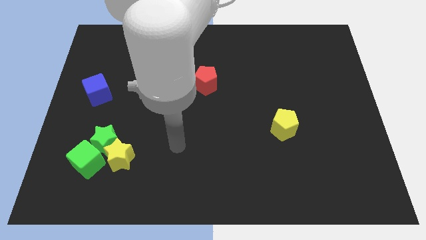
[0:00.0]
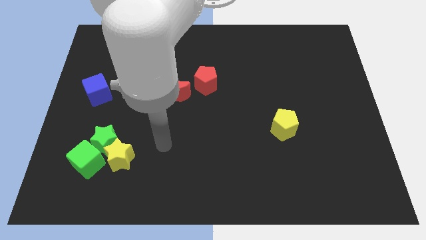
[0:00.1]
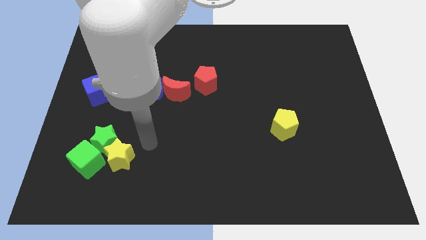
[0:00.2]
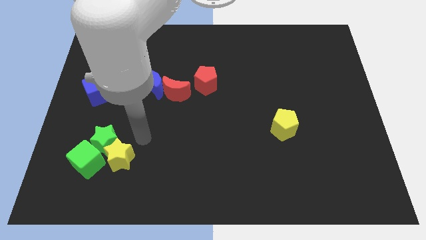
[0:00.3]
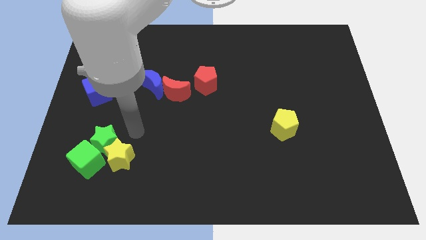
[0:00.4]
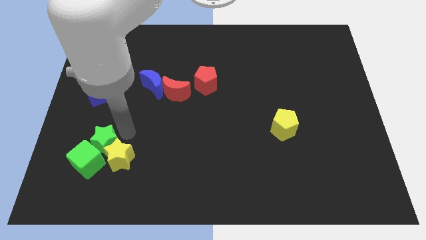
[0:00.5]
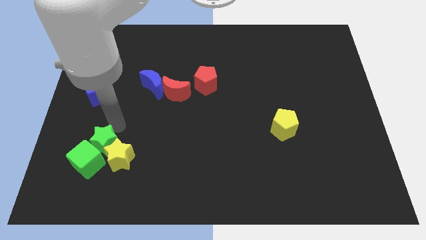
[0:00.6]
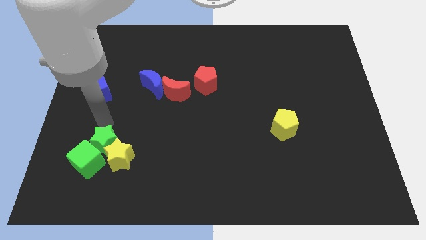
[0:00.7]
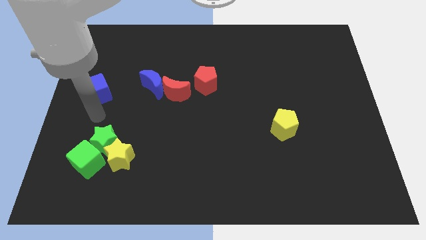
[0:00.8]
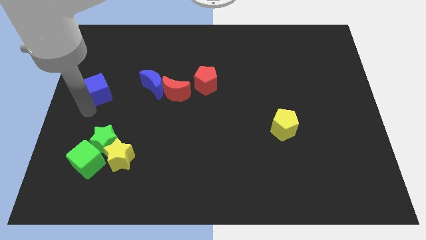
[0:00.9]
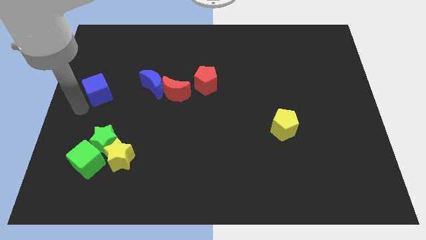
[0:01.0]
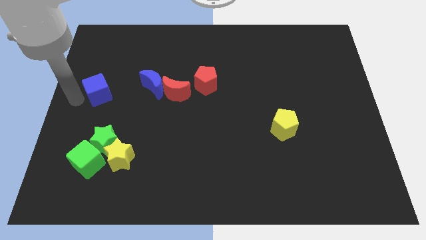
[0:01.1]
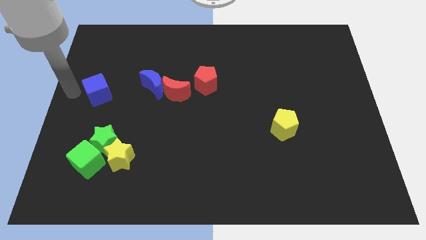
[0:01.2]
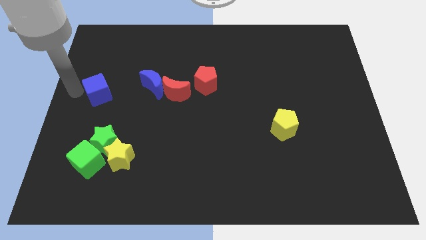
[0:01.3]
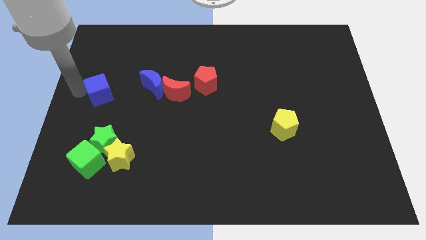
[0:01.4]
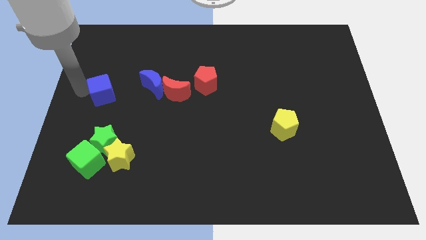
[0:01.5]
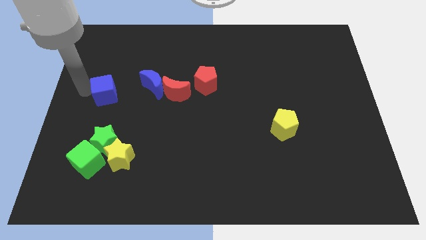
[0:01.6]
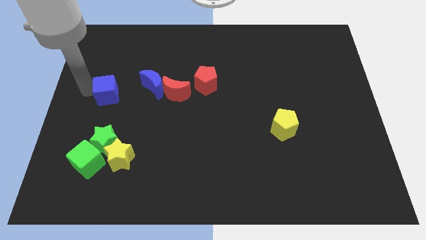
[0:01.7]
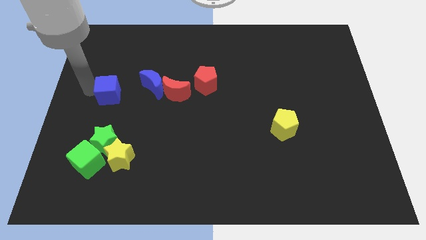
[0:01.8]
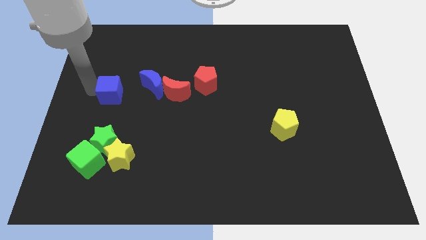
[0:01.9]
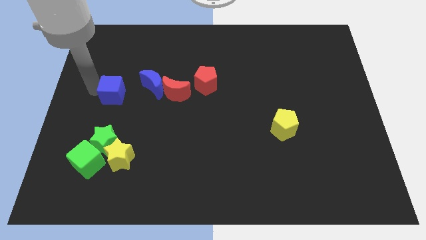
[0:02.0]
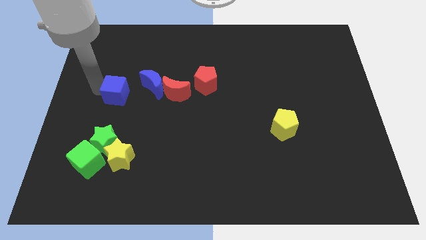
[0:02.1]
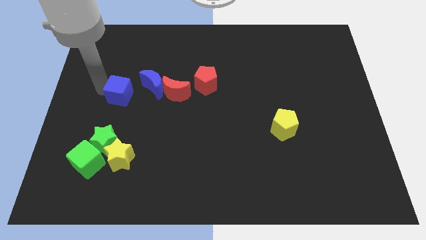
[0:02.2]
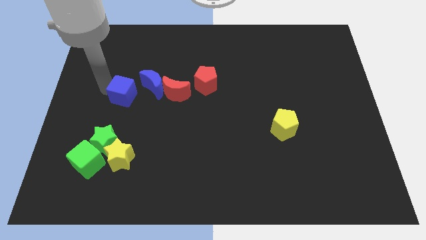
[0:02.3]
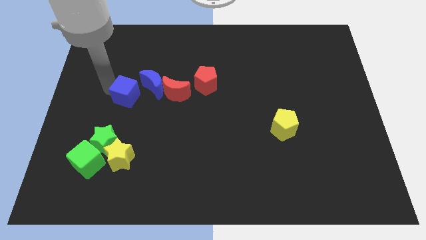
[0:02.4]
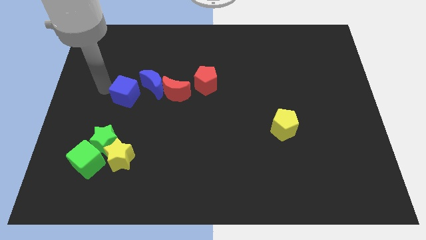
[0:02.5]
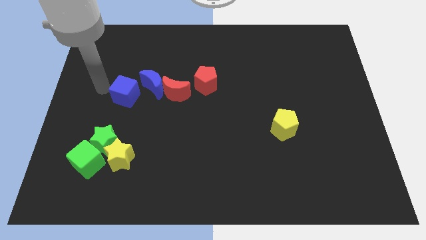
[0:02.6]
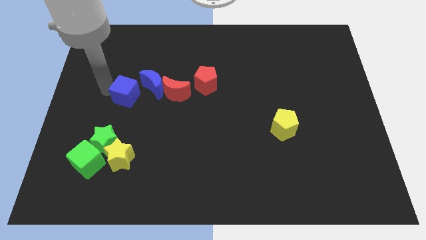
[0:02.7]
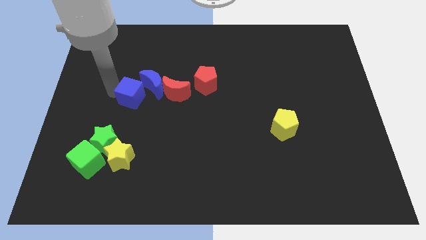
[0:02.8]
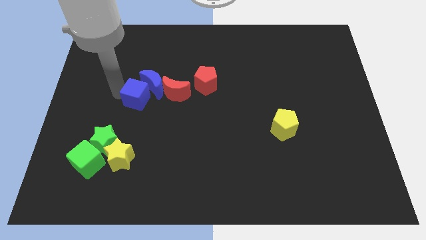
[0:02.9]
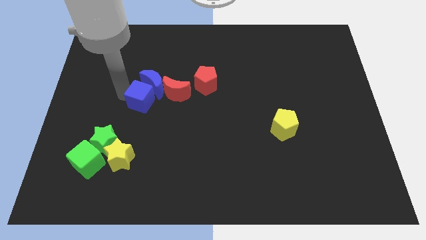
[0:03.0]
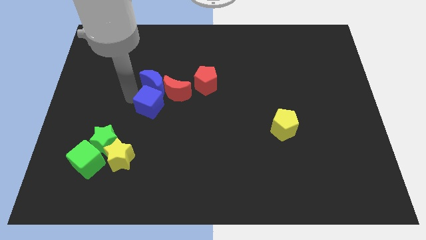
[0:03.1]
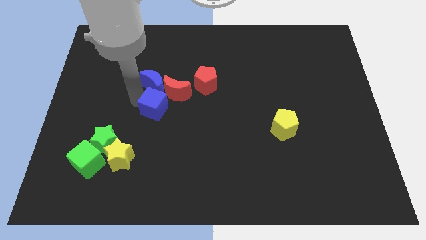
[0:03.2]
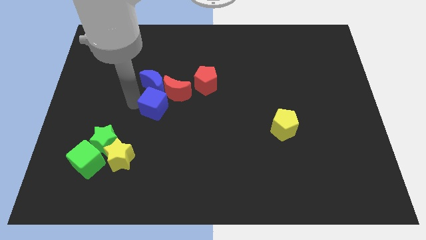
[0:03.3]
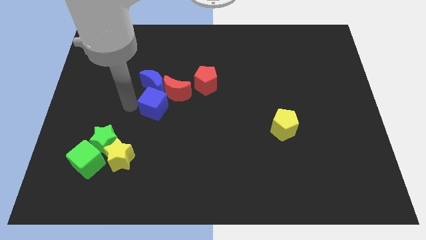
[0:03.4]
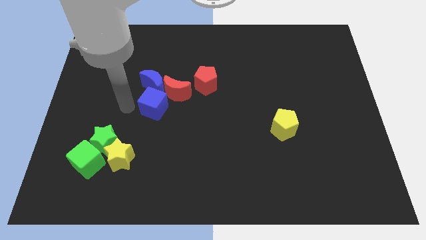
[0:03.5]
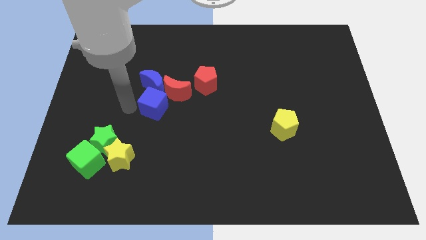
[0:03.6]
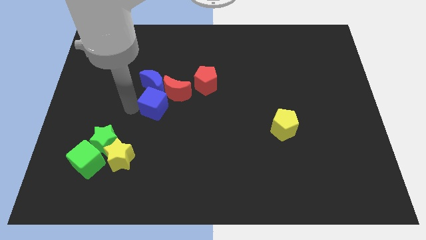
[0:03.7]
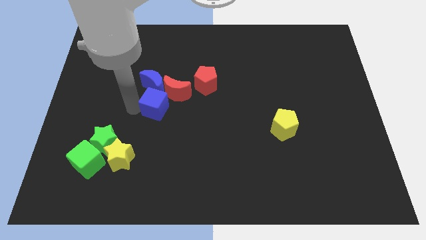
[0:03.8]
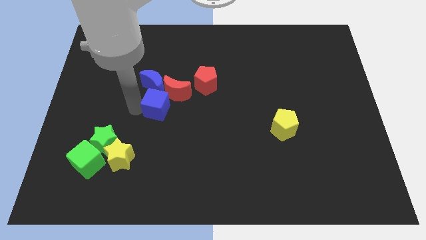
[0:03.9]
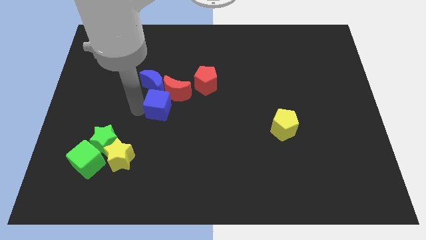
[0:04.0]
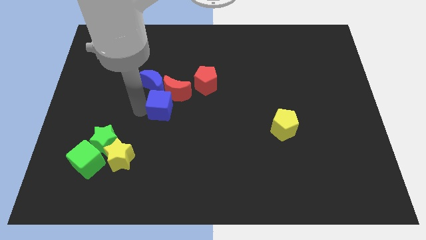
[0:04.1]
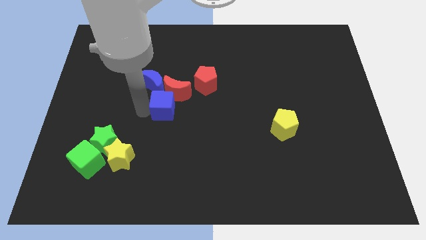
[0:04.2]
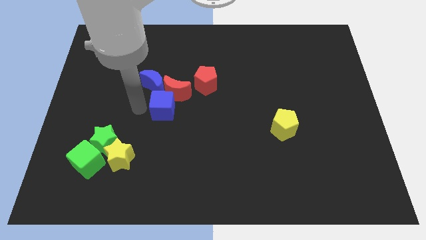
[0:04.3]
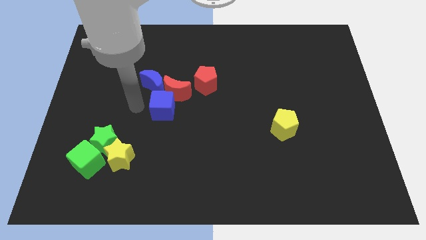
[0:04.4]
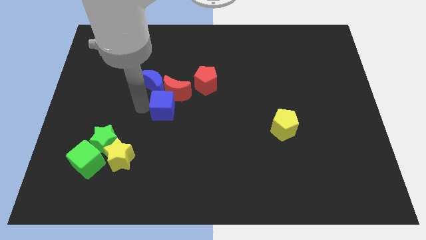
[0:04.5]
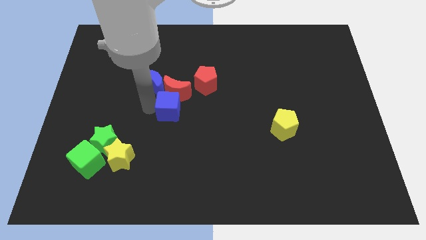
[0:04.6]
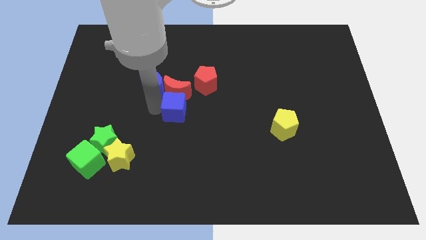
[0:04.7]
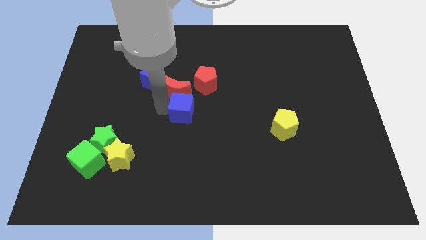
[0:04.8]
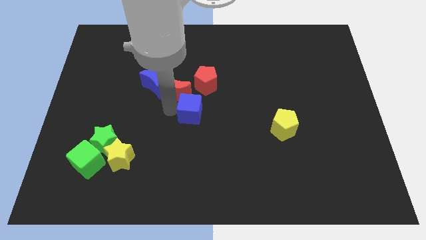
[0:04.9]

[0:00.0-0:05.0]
put the blue cube to the bottom of the red pentagon

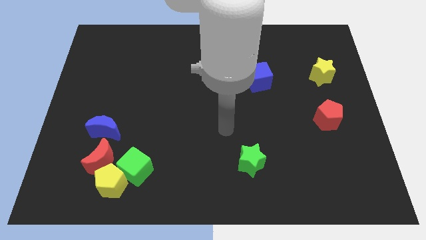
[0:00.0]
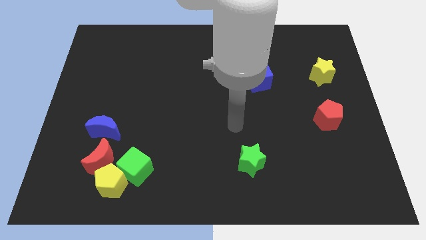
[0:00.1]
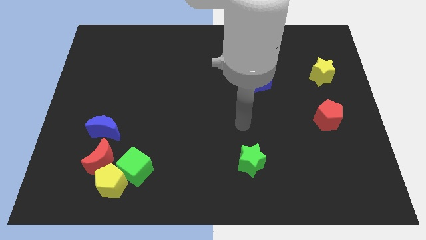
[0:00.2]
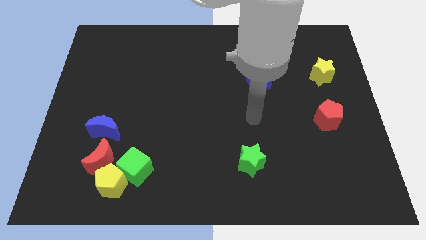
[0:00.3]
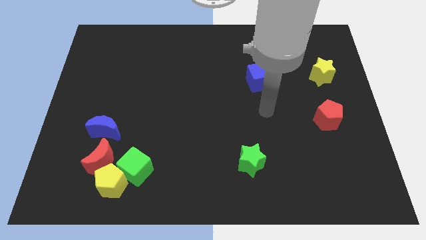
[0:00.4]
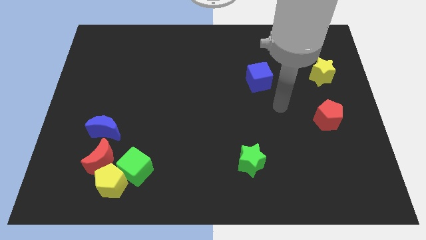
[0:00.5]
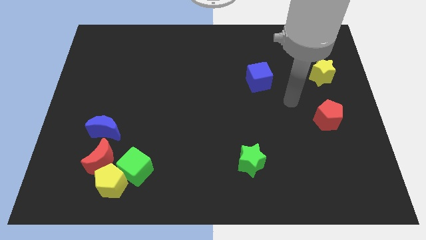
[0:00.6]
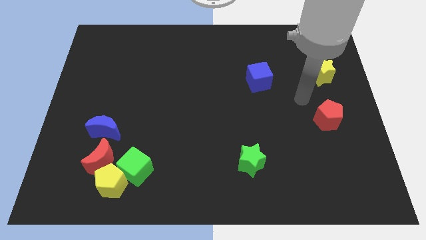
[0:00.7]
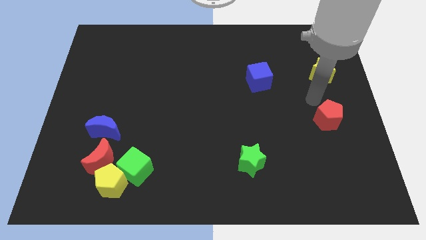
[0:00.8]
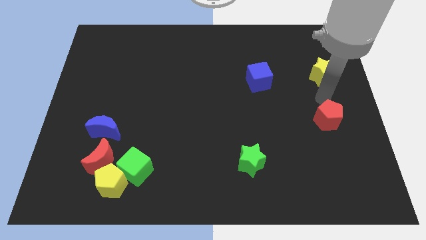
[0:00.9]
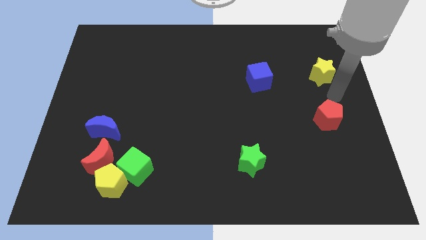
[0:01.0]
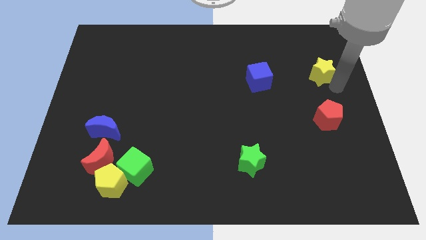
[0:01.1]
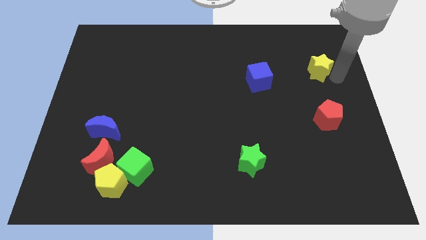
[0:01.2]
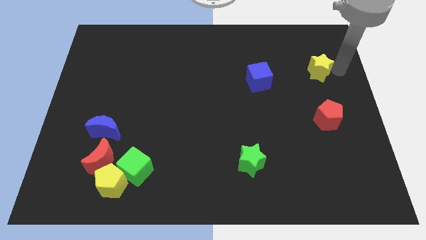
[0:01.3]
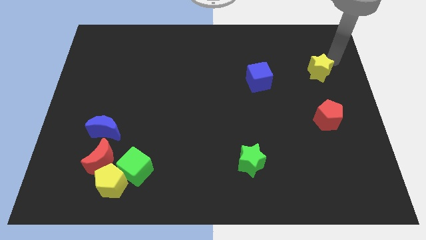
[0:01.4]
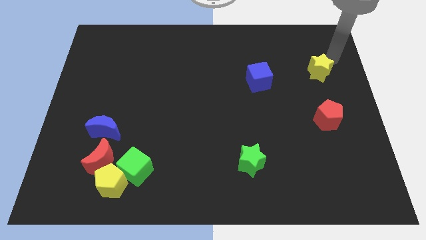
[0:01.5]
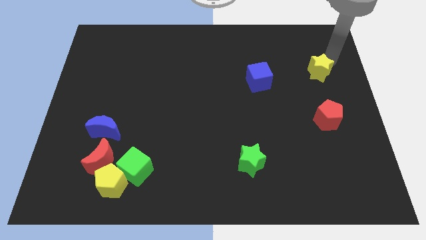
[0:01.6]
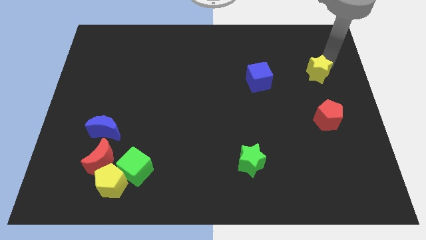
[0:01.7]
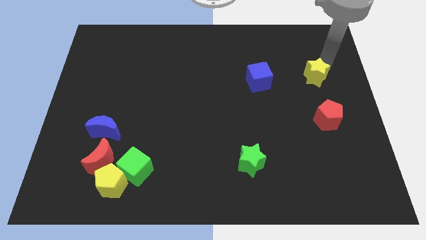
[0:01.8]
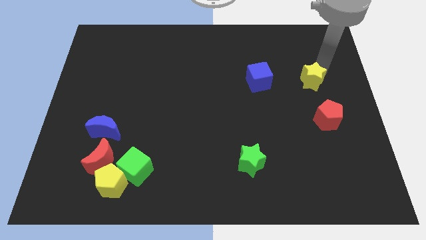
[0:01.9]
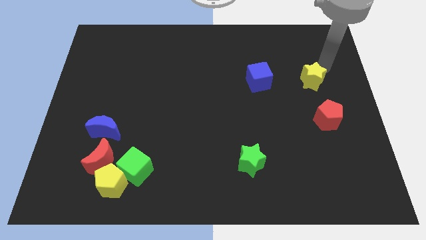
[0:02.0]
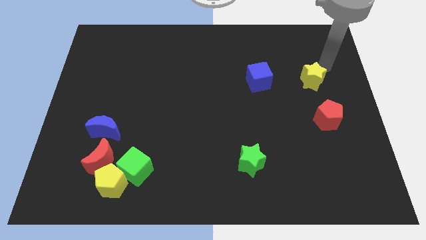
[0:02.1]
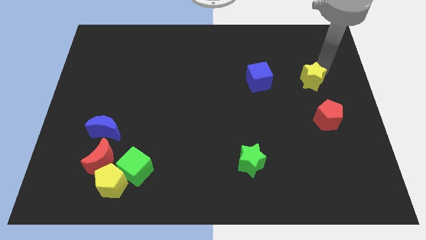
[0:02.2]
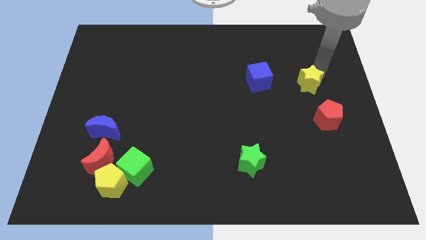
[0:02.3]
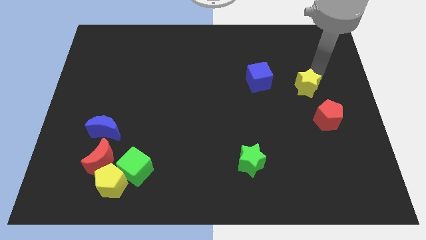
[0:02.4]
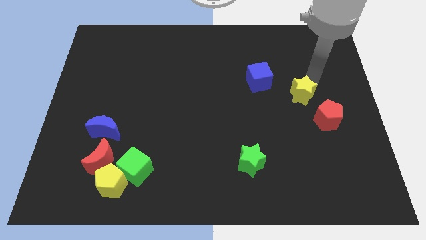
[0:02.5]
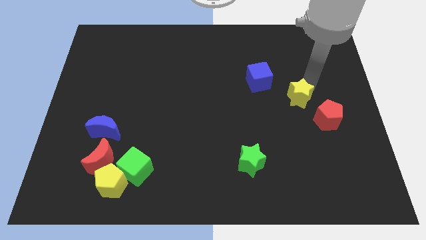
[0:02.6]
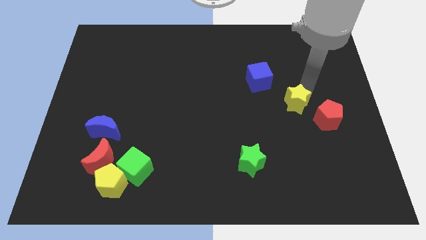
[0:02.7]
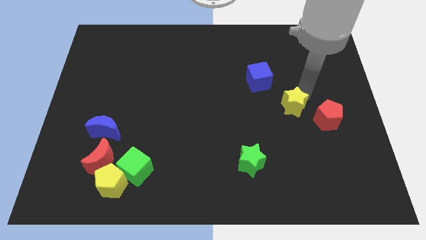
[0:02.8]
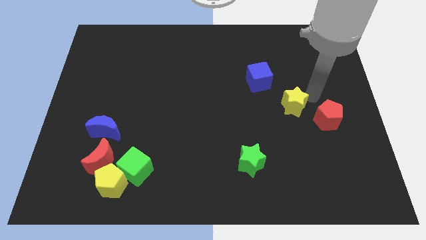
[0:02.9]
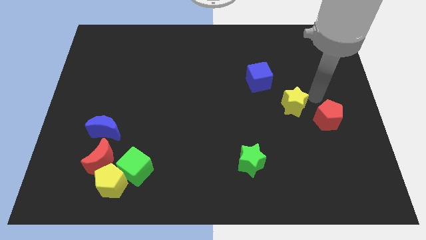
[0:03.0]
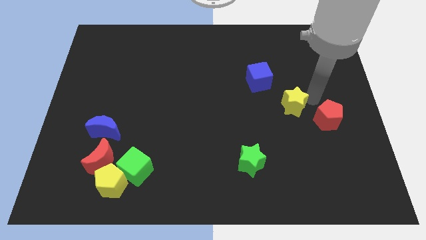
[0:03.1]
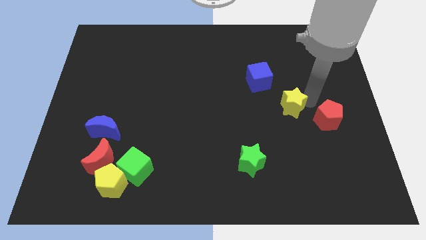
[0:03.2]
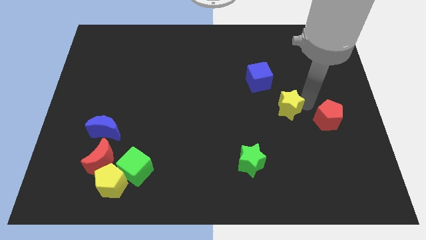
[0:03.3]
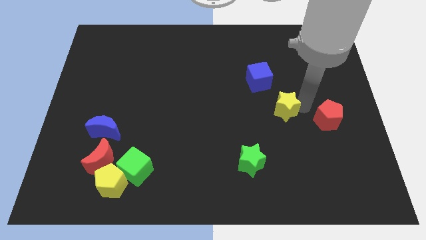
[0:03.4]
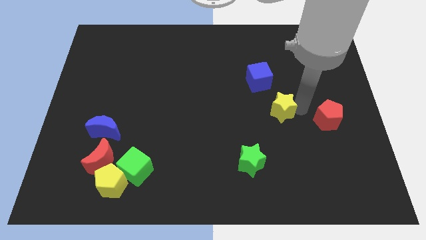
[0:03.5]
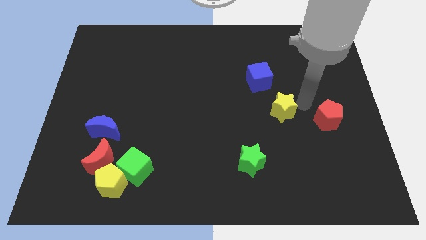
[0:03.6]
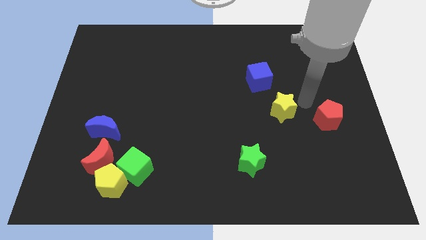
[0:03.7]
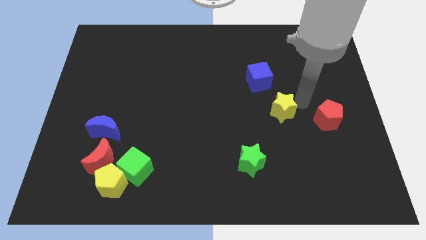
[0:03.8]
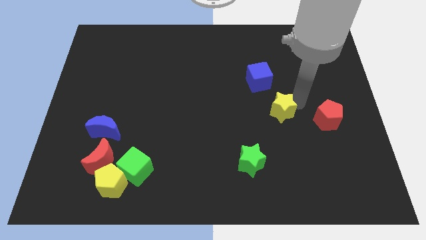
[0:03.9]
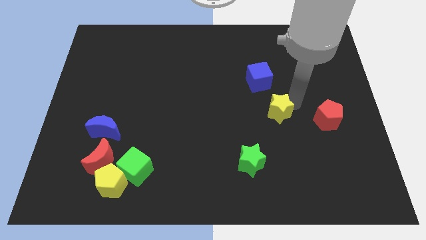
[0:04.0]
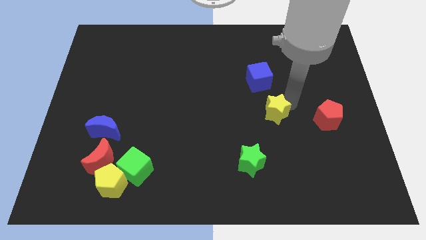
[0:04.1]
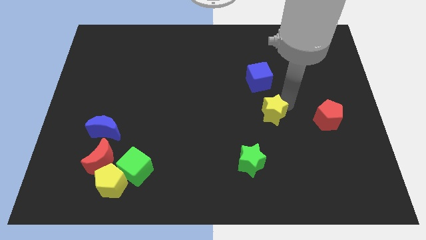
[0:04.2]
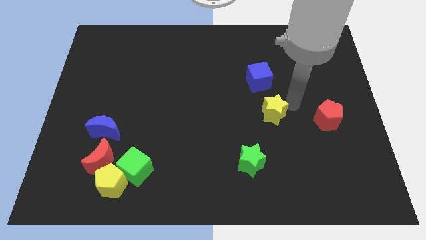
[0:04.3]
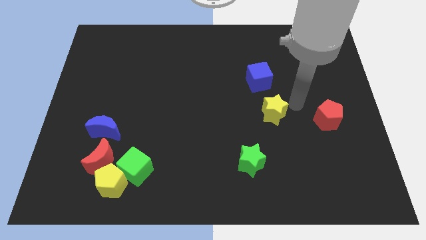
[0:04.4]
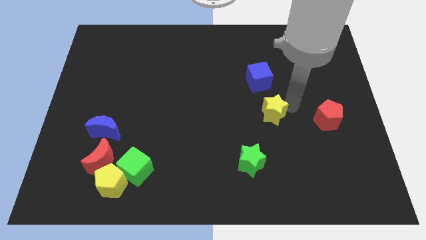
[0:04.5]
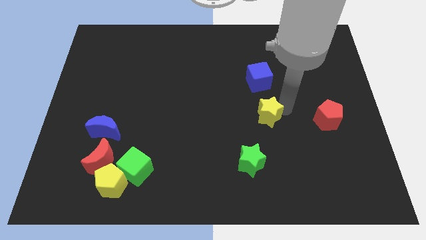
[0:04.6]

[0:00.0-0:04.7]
slide the yellow star above the green star
